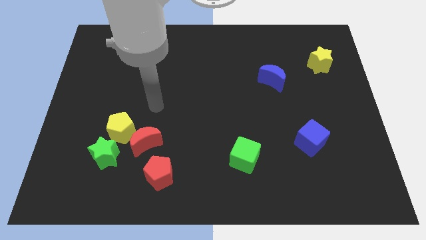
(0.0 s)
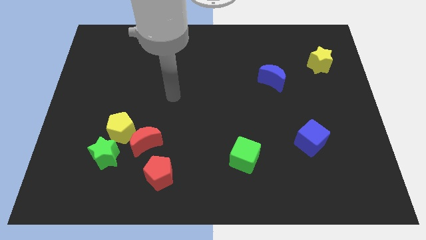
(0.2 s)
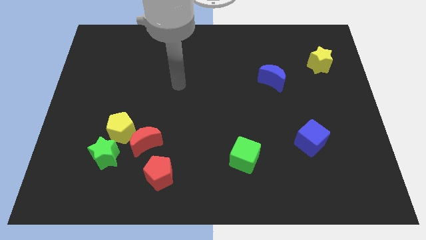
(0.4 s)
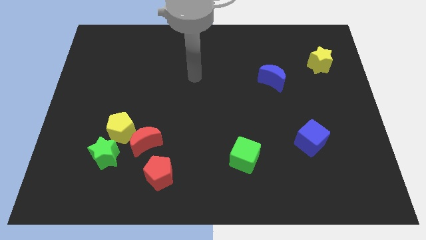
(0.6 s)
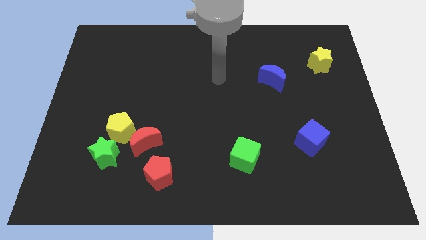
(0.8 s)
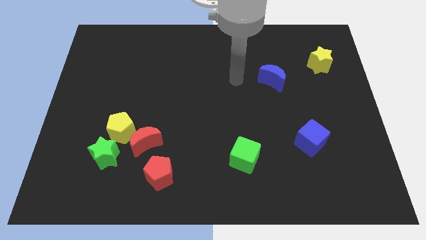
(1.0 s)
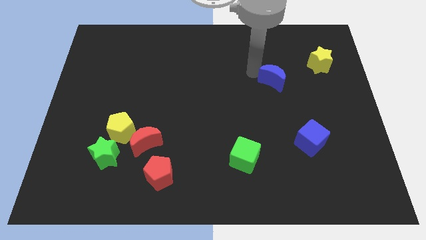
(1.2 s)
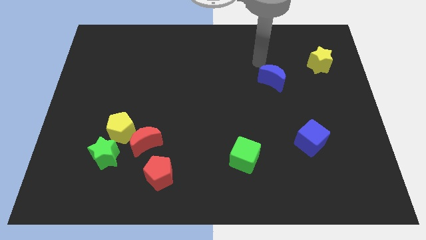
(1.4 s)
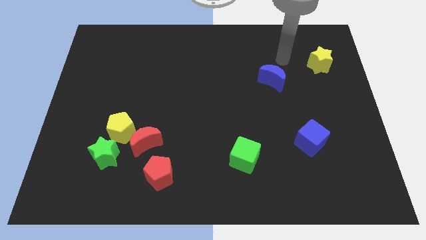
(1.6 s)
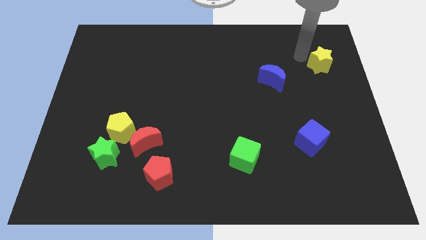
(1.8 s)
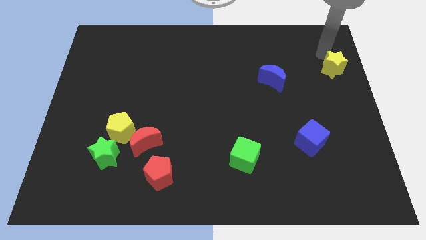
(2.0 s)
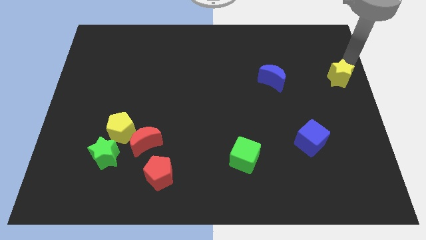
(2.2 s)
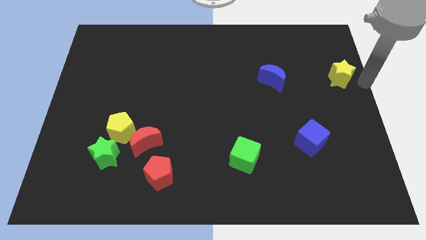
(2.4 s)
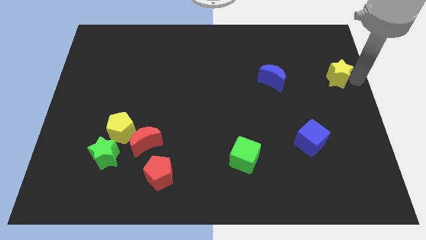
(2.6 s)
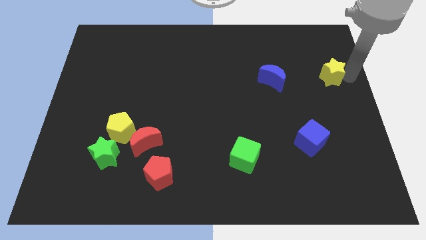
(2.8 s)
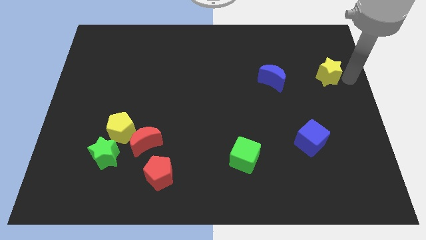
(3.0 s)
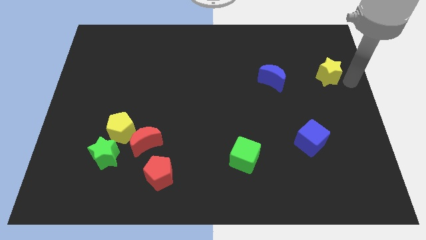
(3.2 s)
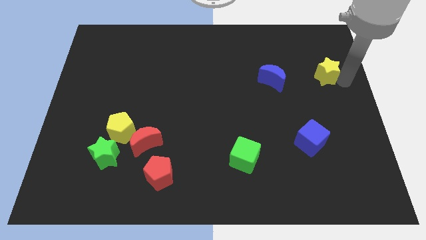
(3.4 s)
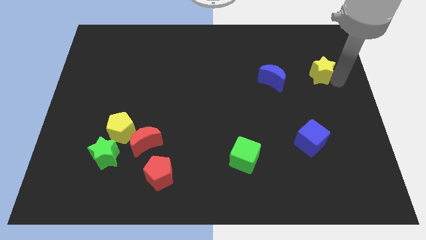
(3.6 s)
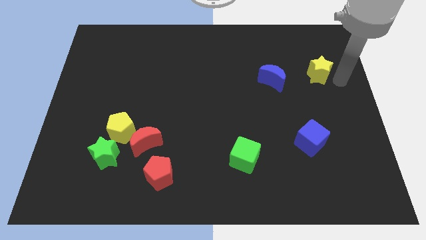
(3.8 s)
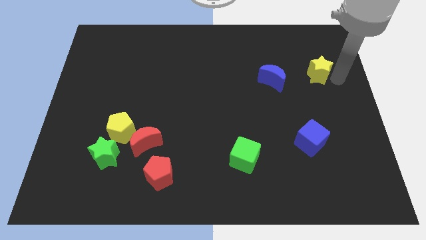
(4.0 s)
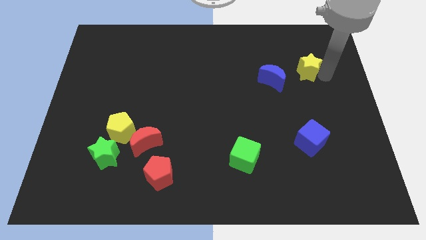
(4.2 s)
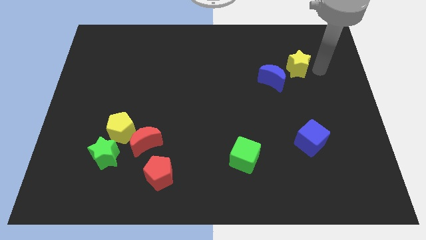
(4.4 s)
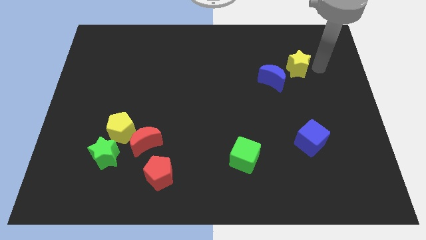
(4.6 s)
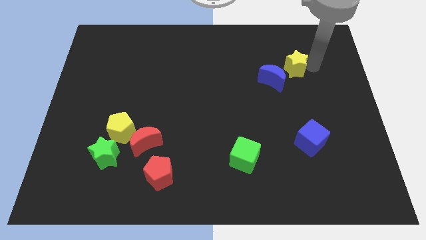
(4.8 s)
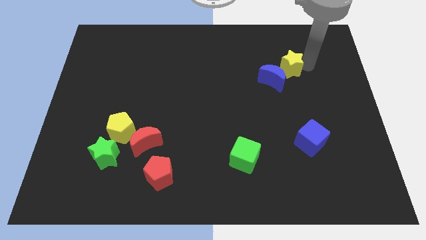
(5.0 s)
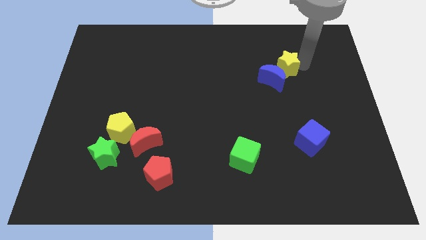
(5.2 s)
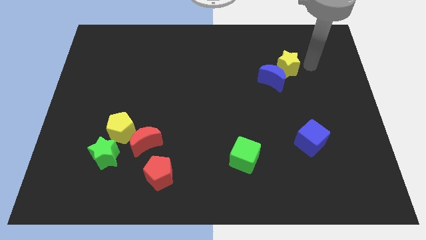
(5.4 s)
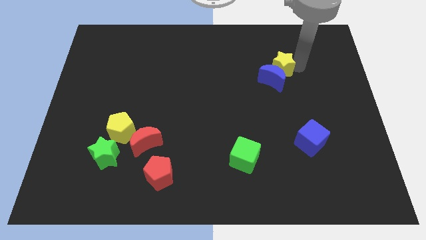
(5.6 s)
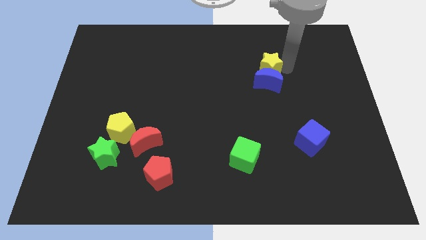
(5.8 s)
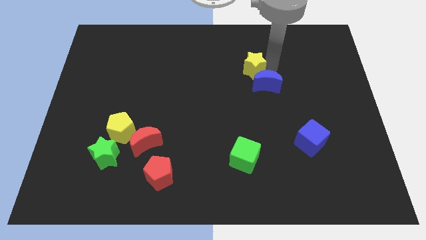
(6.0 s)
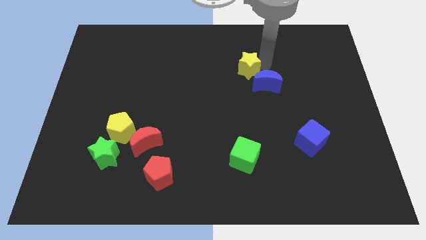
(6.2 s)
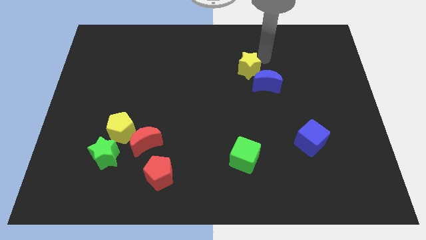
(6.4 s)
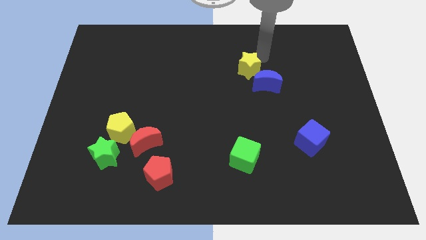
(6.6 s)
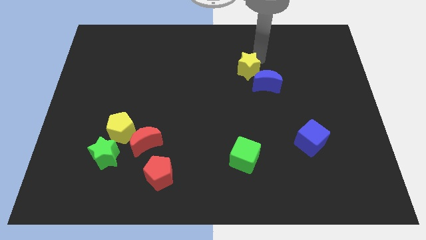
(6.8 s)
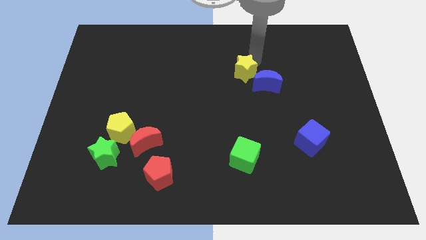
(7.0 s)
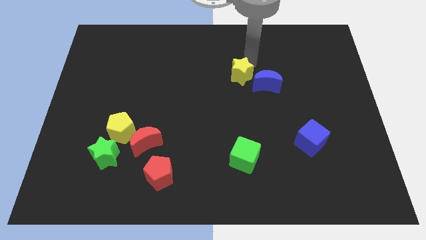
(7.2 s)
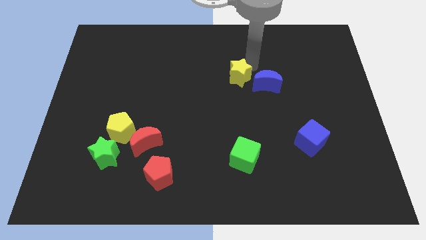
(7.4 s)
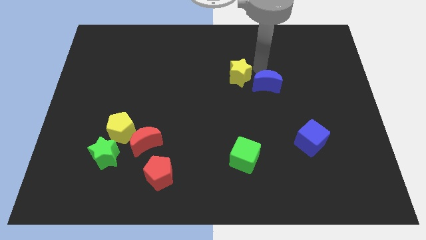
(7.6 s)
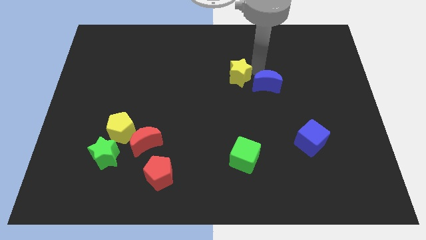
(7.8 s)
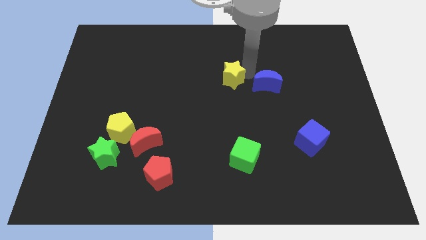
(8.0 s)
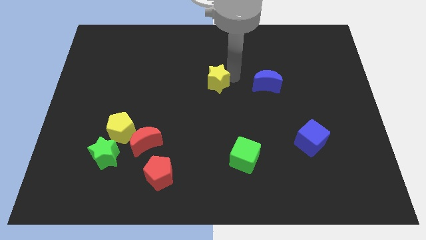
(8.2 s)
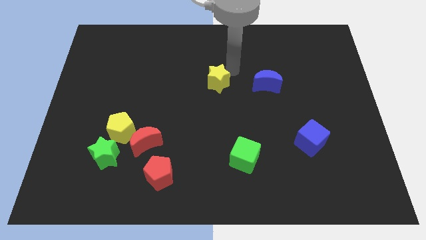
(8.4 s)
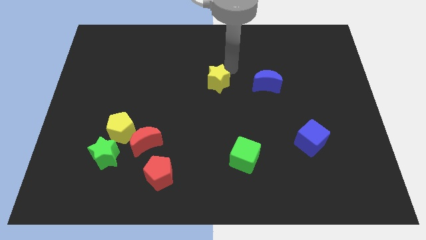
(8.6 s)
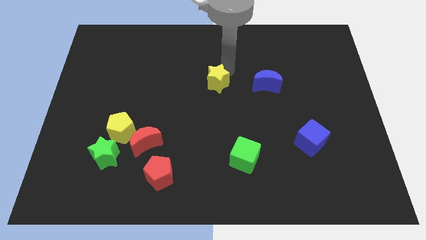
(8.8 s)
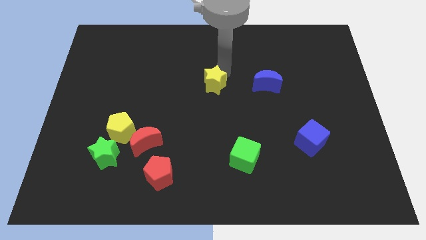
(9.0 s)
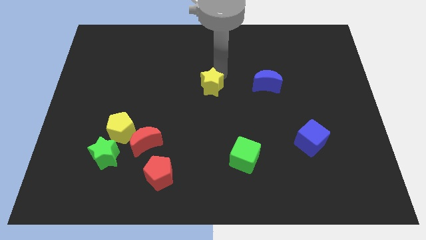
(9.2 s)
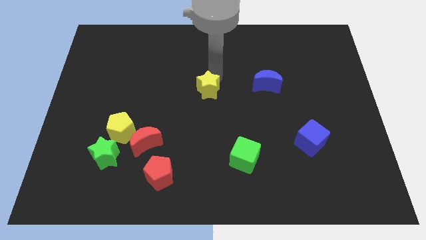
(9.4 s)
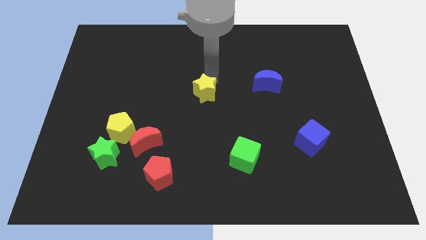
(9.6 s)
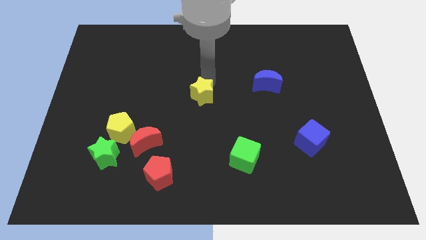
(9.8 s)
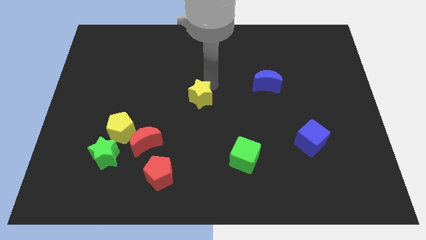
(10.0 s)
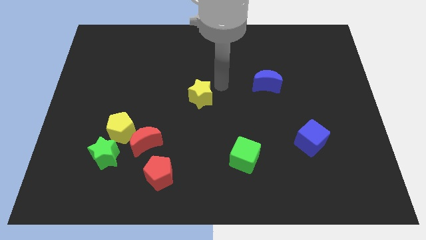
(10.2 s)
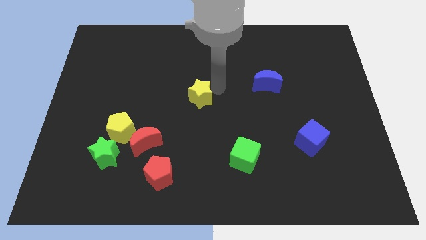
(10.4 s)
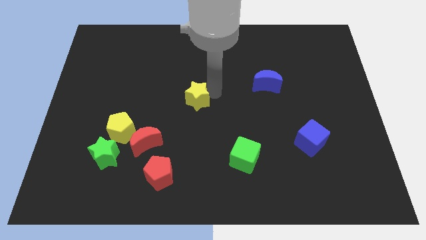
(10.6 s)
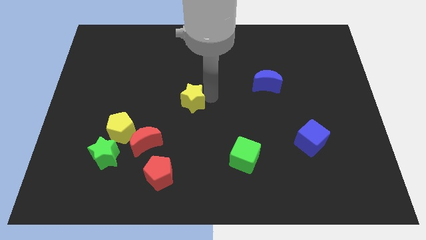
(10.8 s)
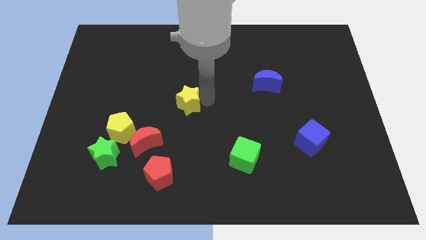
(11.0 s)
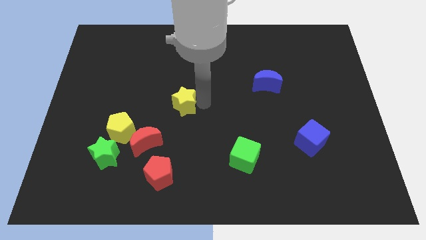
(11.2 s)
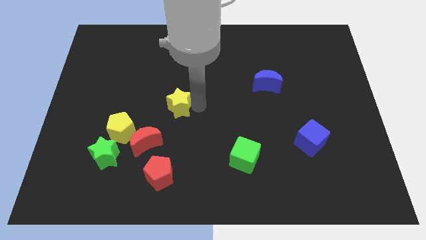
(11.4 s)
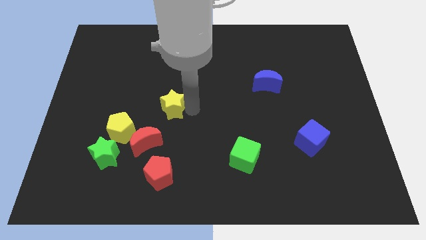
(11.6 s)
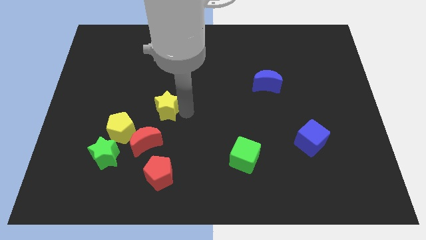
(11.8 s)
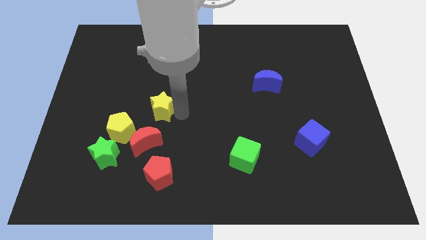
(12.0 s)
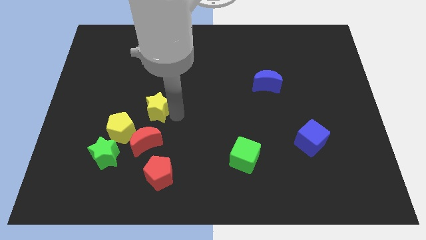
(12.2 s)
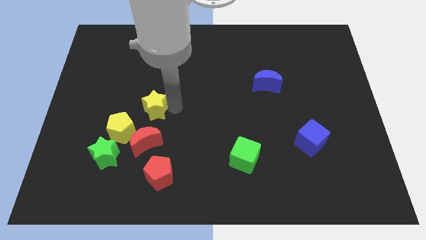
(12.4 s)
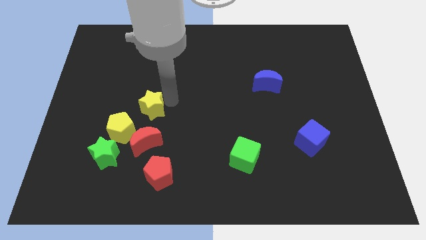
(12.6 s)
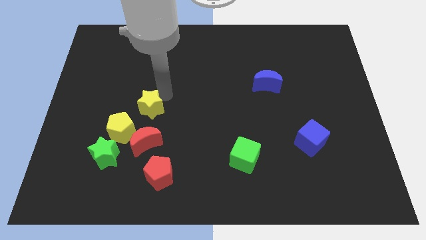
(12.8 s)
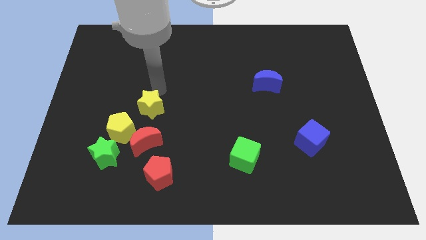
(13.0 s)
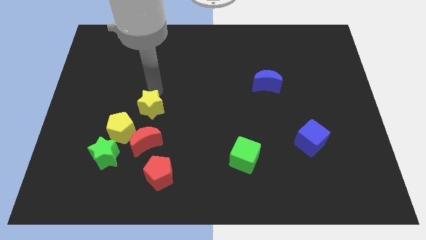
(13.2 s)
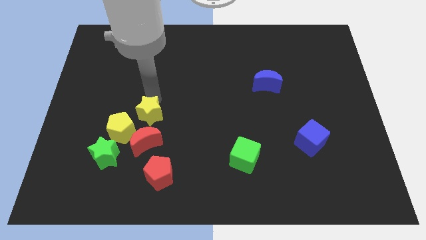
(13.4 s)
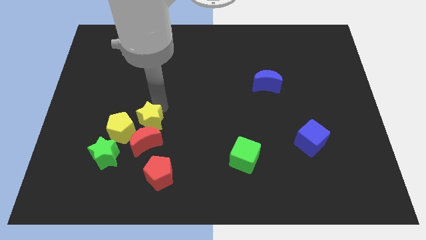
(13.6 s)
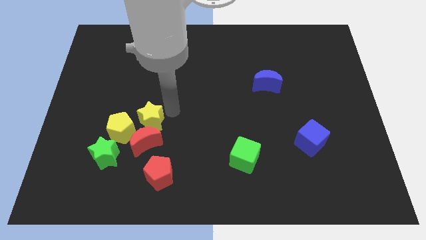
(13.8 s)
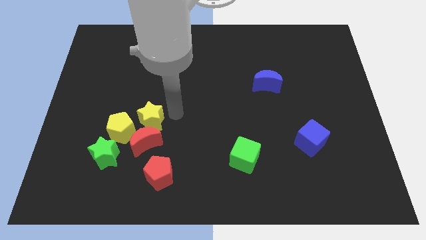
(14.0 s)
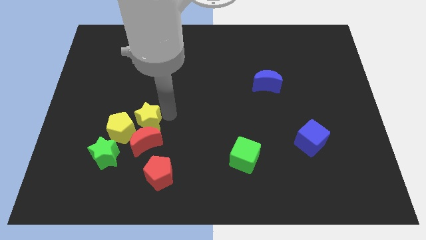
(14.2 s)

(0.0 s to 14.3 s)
put the yellow star next to the yellow pentagon

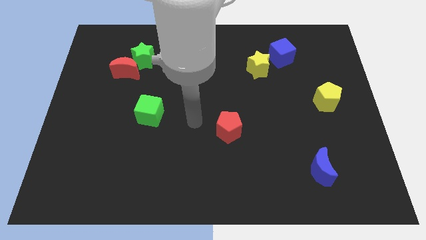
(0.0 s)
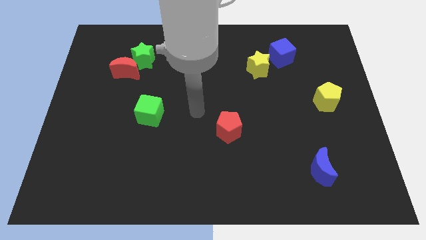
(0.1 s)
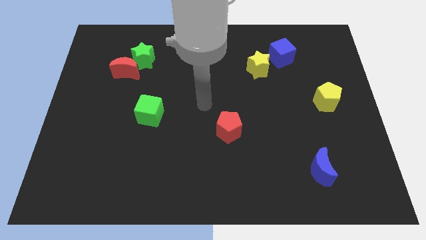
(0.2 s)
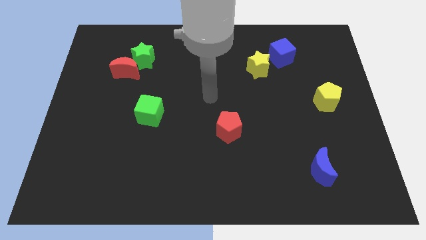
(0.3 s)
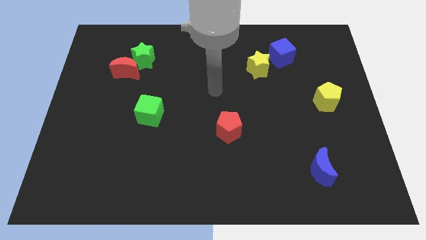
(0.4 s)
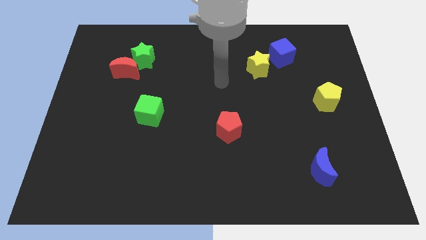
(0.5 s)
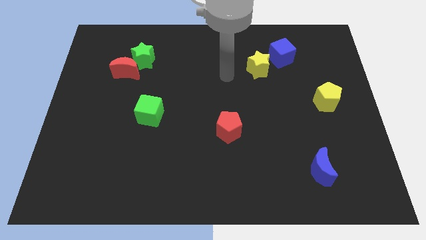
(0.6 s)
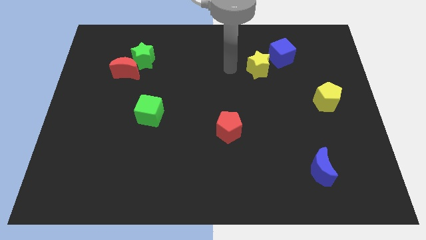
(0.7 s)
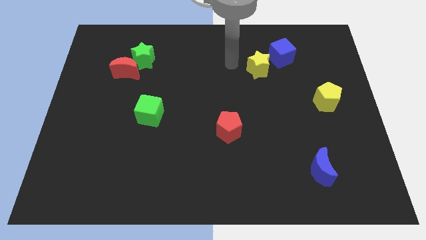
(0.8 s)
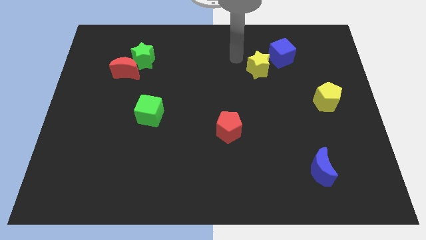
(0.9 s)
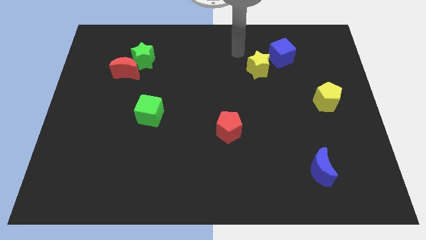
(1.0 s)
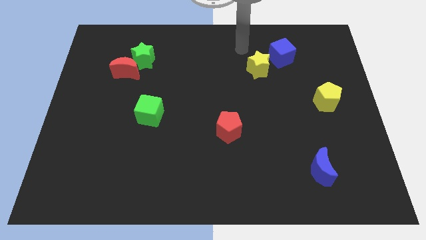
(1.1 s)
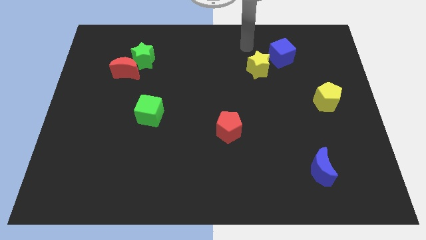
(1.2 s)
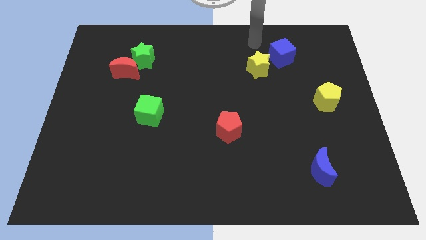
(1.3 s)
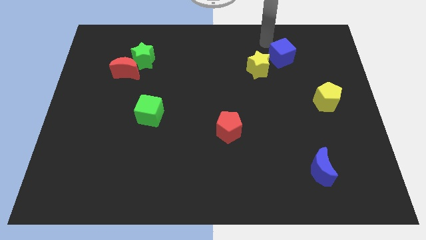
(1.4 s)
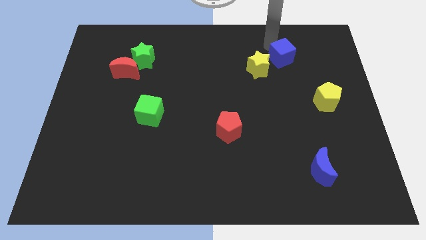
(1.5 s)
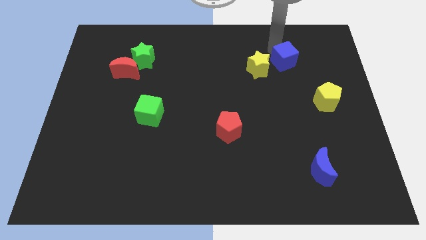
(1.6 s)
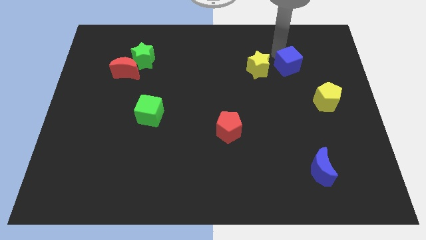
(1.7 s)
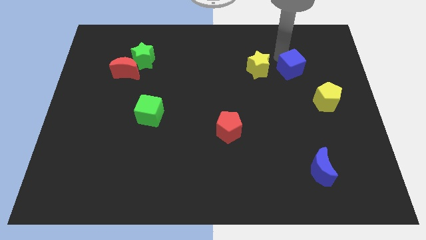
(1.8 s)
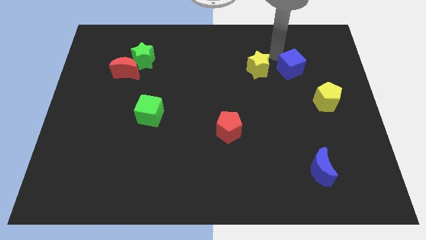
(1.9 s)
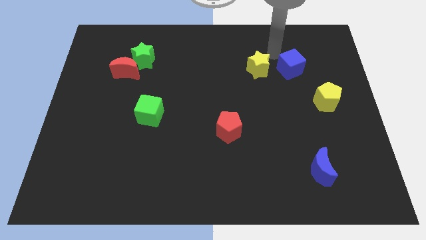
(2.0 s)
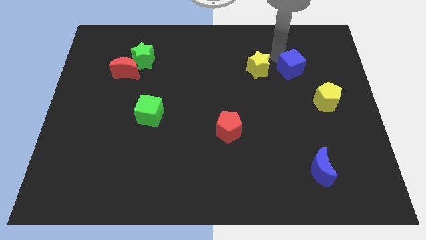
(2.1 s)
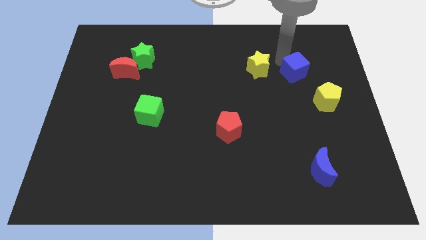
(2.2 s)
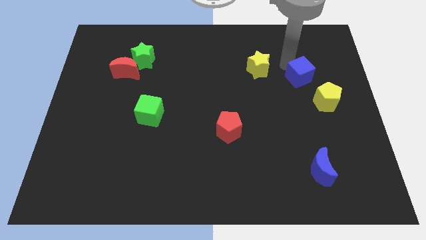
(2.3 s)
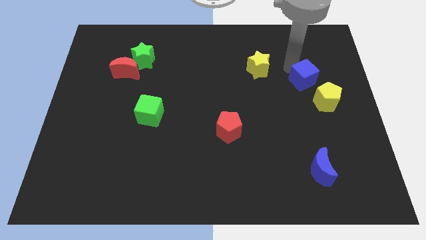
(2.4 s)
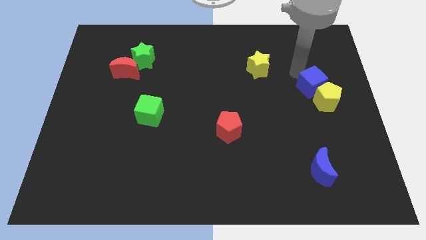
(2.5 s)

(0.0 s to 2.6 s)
move the blue cube next to the yellow pentagon
